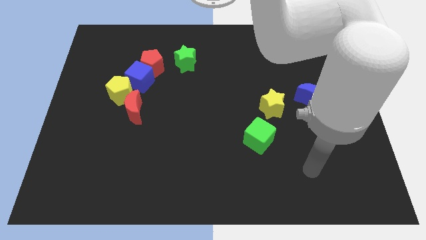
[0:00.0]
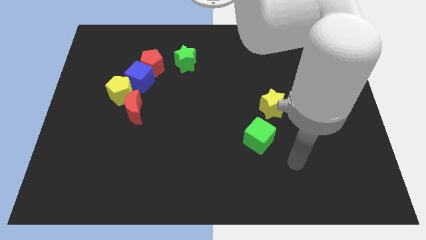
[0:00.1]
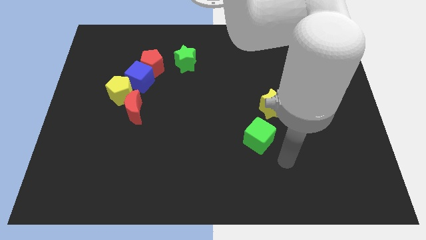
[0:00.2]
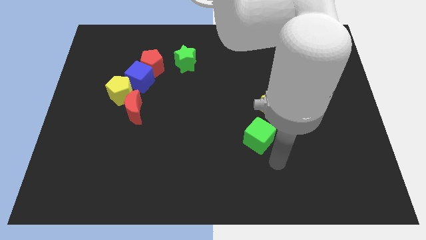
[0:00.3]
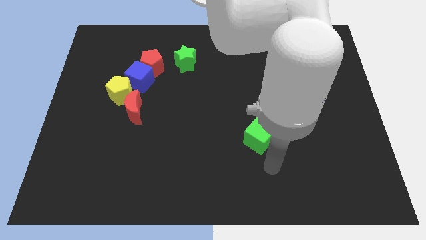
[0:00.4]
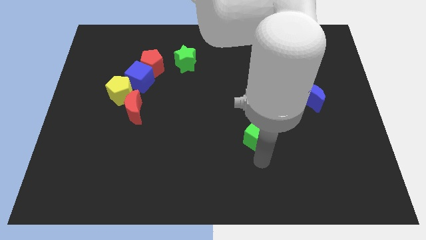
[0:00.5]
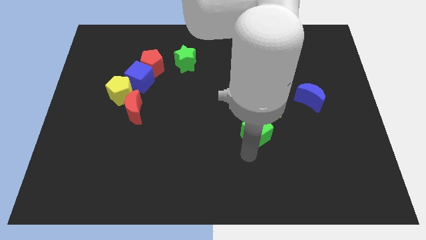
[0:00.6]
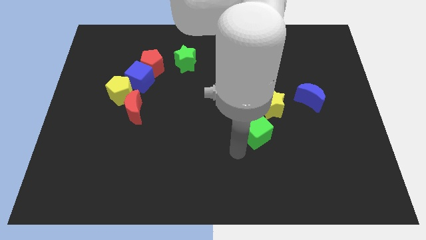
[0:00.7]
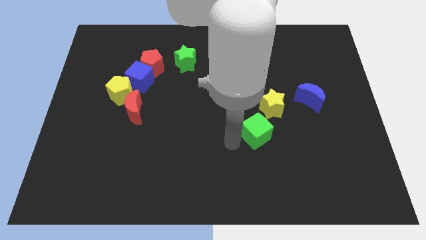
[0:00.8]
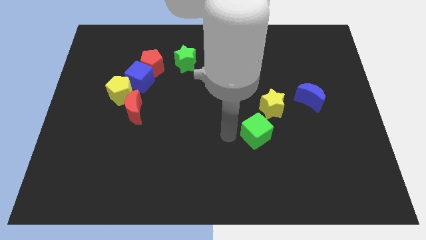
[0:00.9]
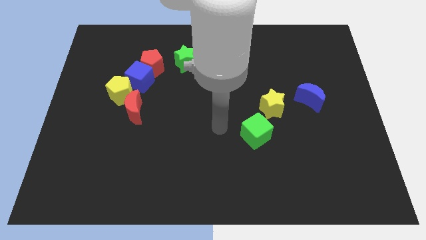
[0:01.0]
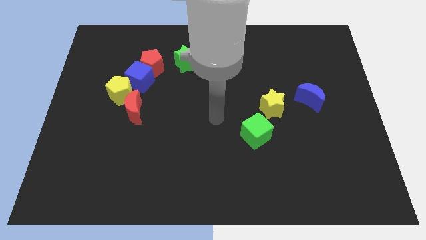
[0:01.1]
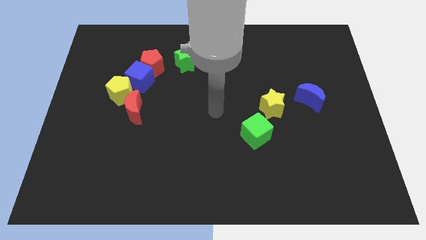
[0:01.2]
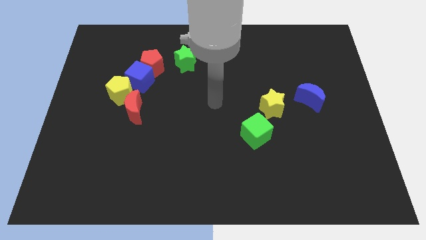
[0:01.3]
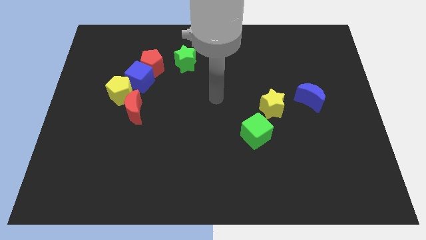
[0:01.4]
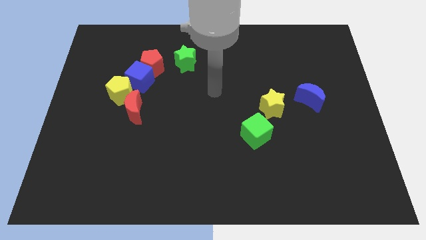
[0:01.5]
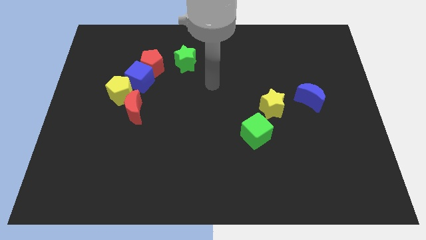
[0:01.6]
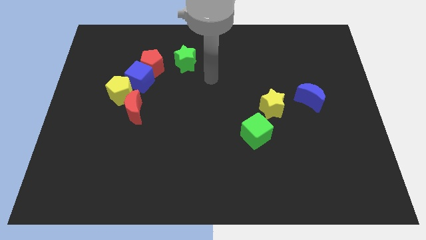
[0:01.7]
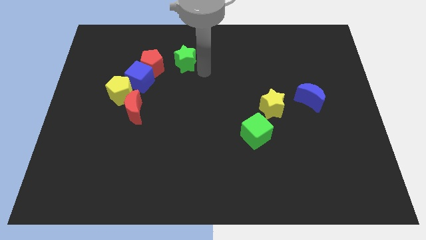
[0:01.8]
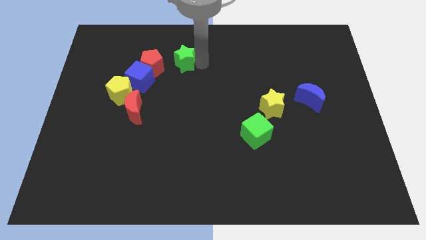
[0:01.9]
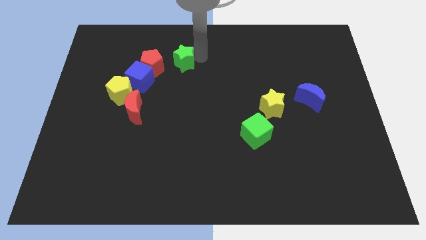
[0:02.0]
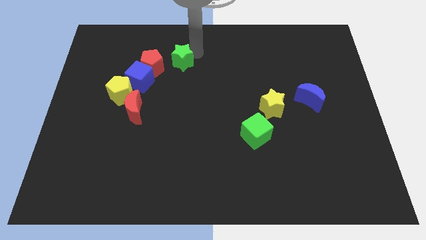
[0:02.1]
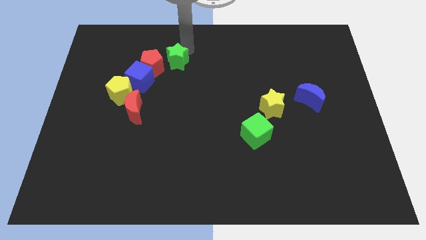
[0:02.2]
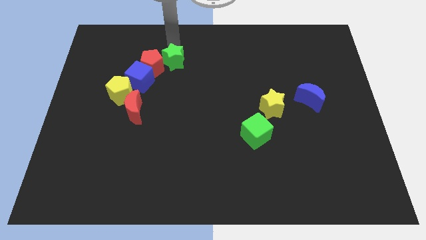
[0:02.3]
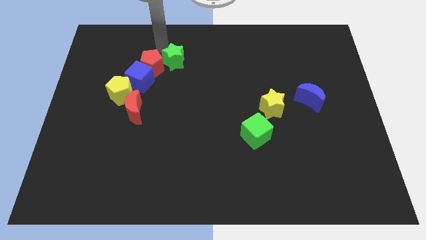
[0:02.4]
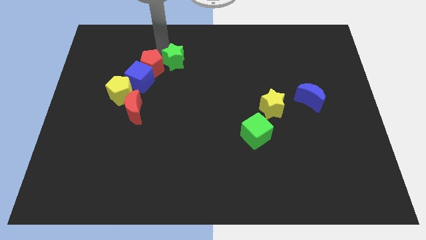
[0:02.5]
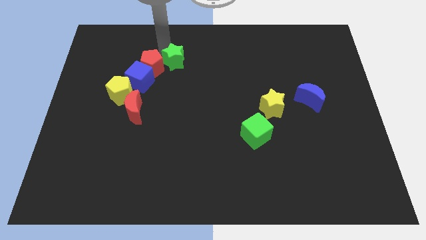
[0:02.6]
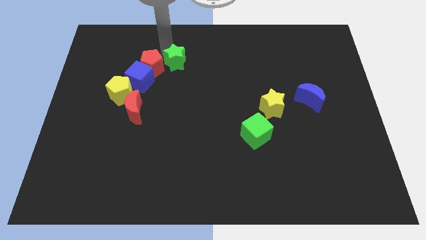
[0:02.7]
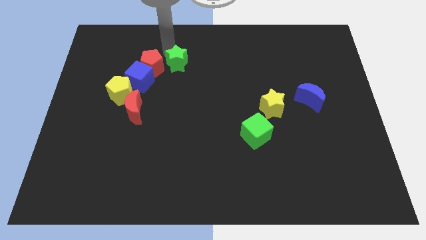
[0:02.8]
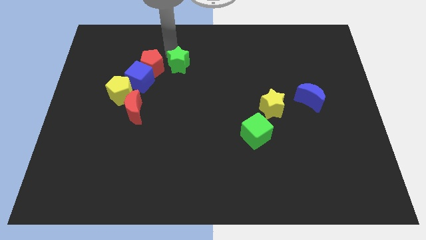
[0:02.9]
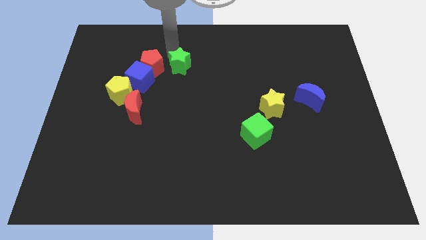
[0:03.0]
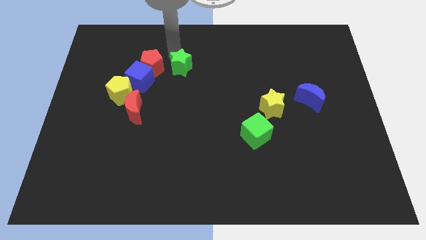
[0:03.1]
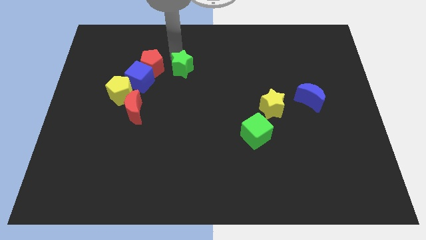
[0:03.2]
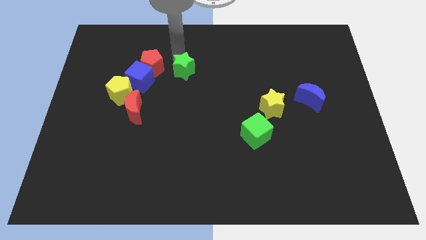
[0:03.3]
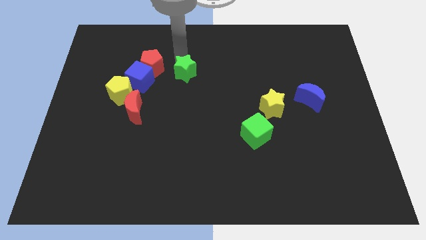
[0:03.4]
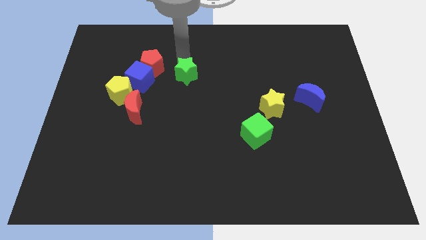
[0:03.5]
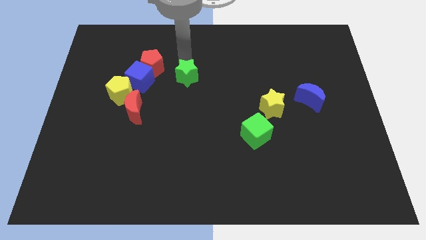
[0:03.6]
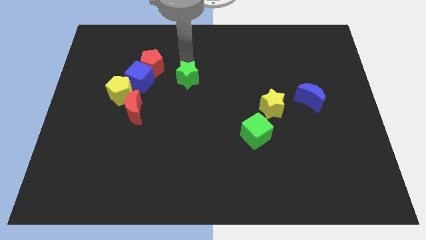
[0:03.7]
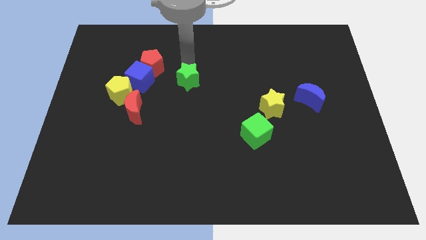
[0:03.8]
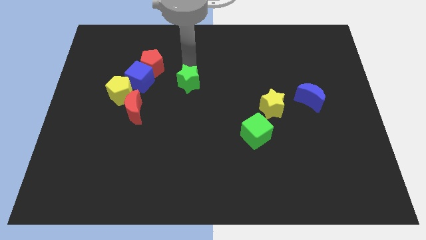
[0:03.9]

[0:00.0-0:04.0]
slightly move the green star down

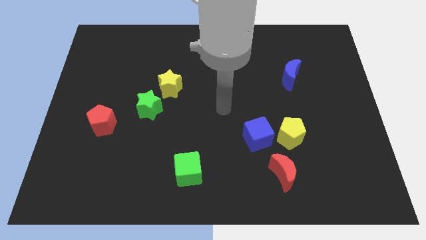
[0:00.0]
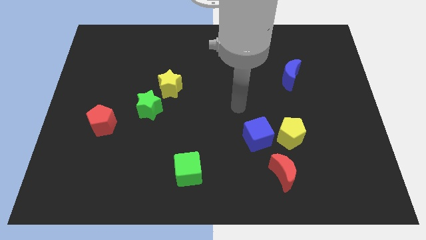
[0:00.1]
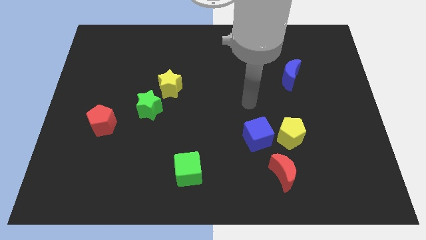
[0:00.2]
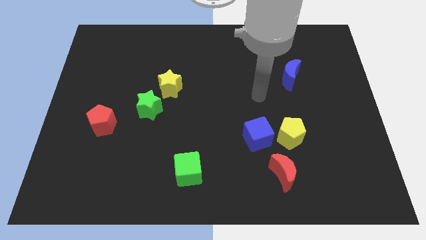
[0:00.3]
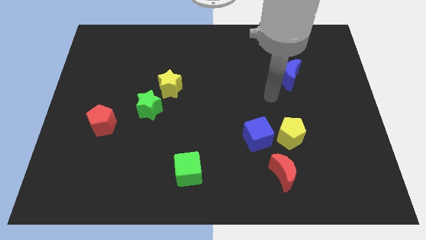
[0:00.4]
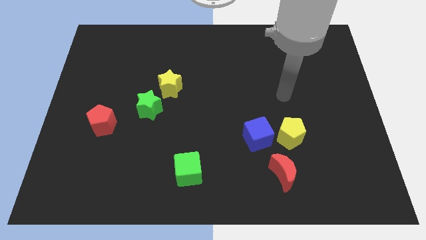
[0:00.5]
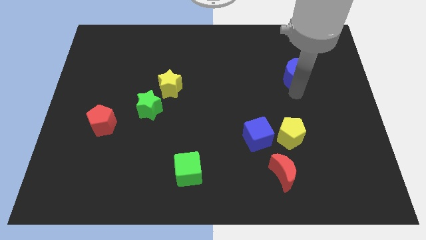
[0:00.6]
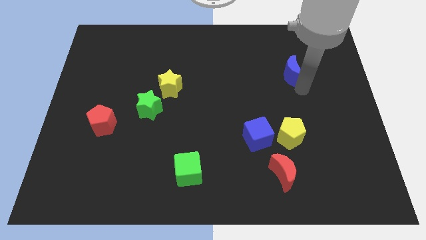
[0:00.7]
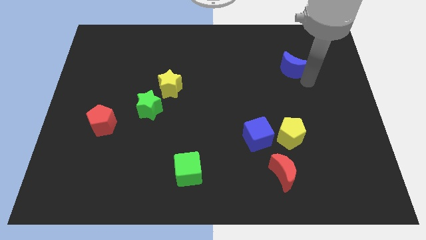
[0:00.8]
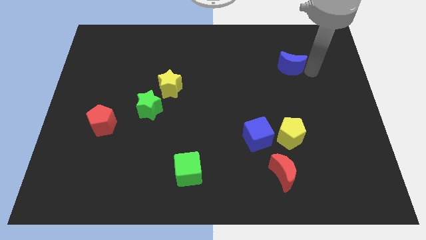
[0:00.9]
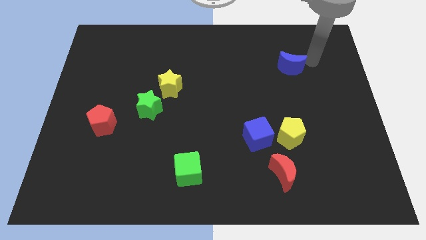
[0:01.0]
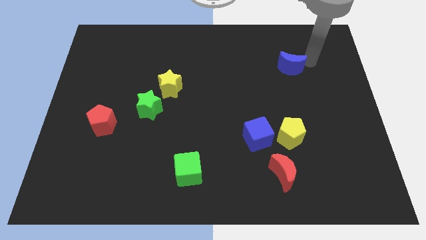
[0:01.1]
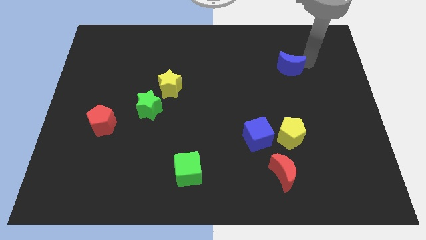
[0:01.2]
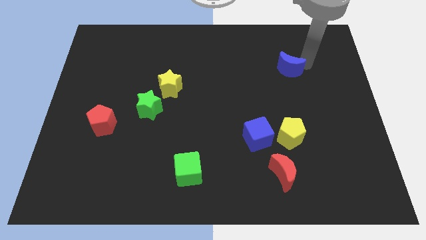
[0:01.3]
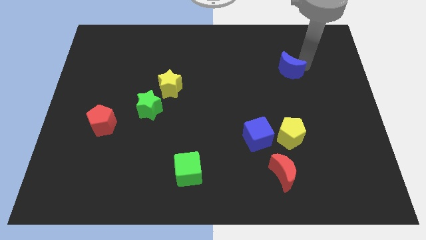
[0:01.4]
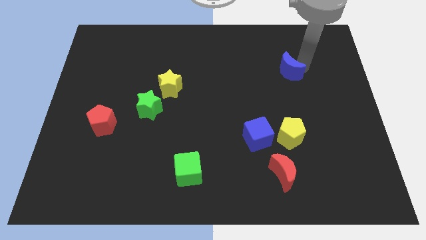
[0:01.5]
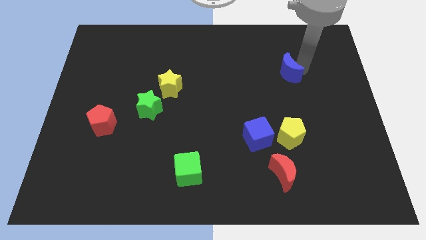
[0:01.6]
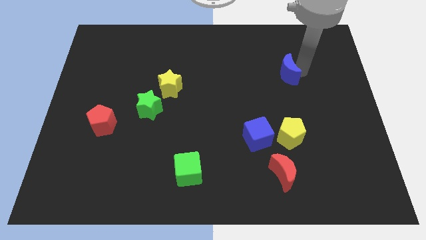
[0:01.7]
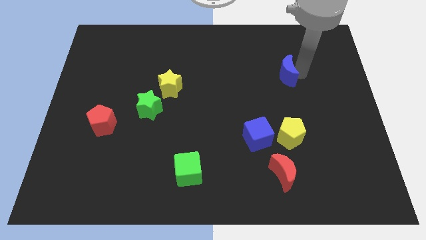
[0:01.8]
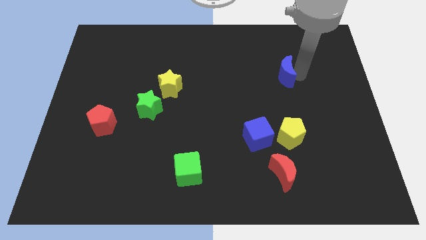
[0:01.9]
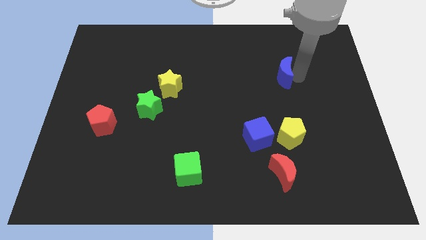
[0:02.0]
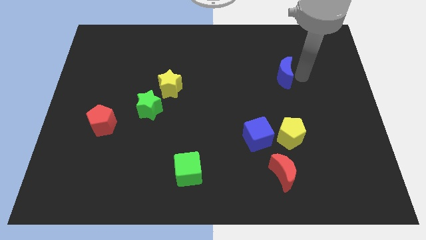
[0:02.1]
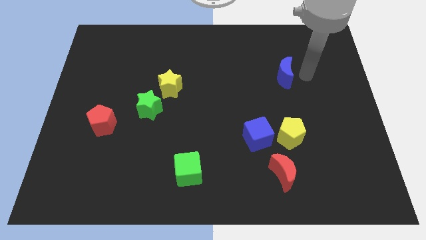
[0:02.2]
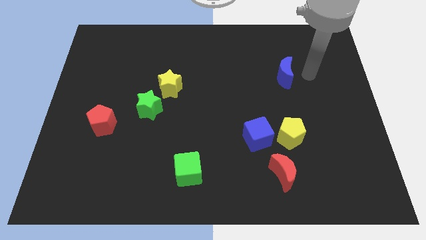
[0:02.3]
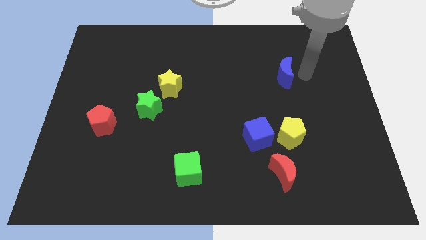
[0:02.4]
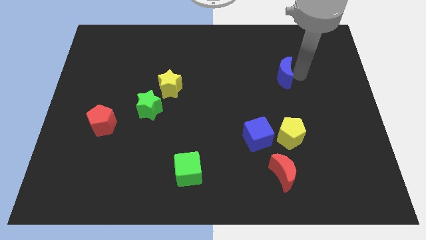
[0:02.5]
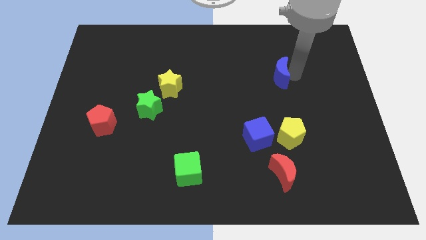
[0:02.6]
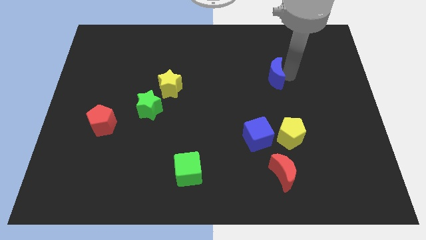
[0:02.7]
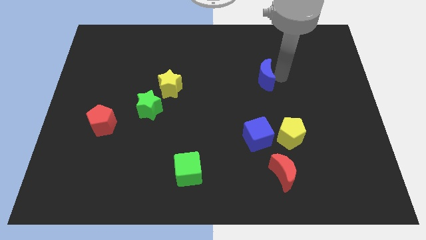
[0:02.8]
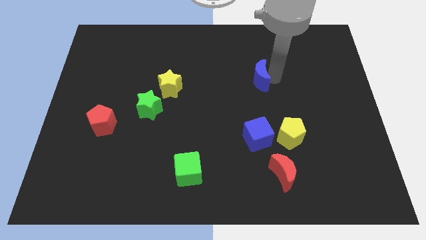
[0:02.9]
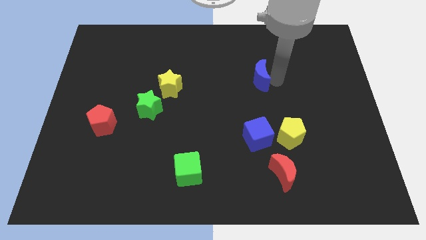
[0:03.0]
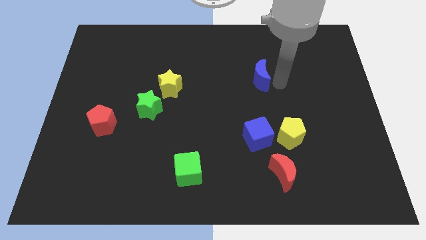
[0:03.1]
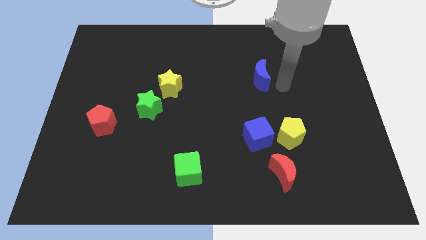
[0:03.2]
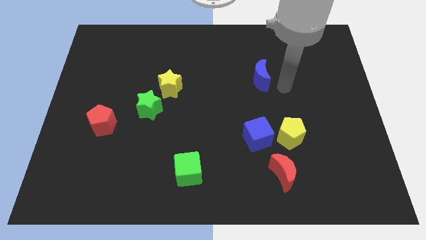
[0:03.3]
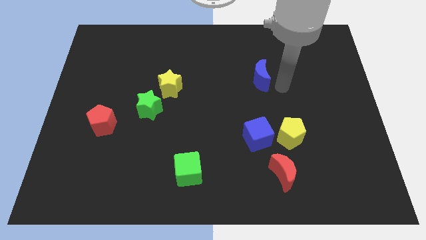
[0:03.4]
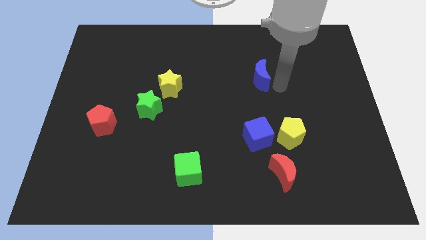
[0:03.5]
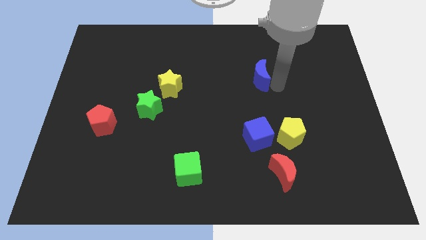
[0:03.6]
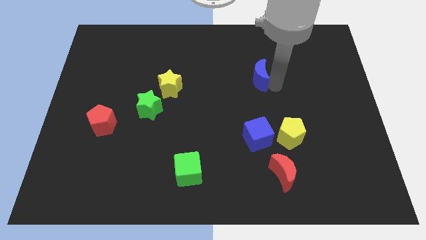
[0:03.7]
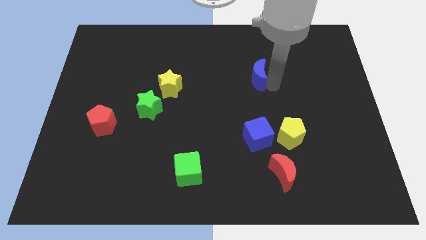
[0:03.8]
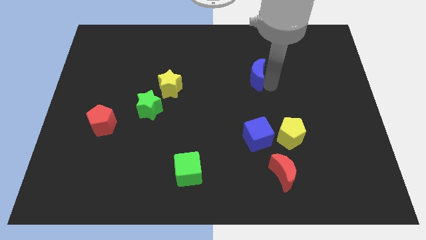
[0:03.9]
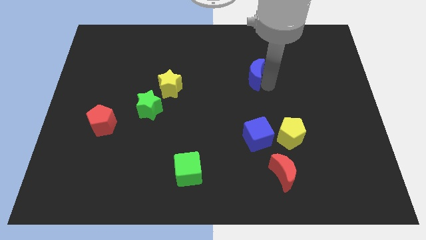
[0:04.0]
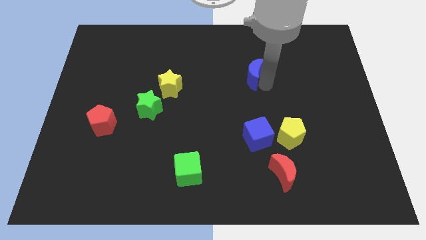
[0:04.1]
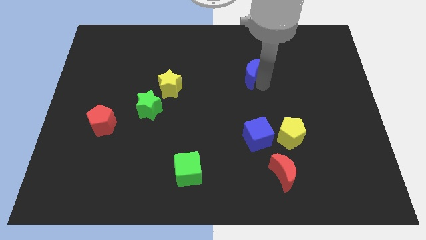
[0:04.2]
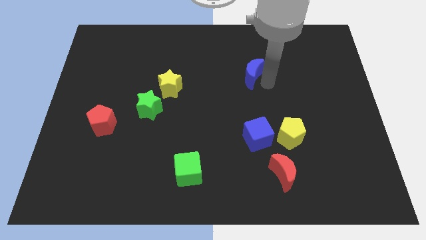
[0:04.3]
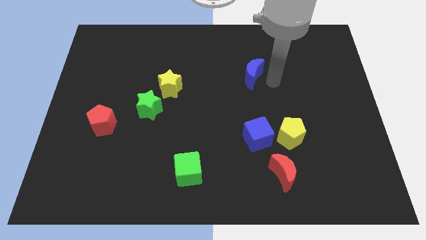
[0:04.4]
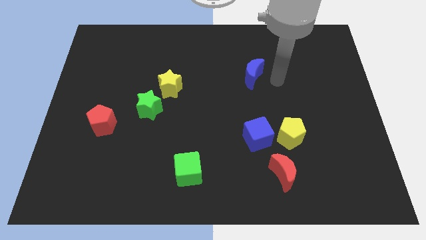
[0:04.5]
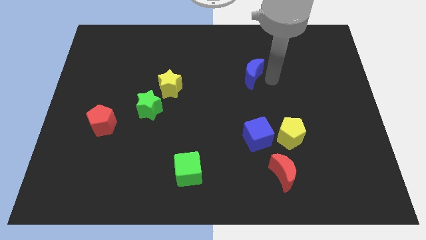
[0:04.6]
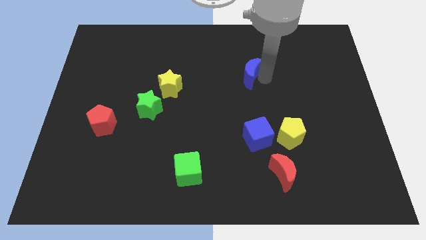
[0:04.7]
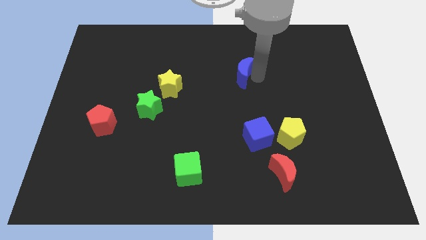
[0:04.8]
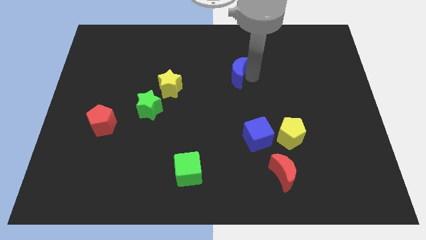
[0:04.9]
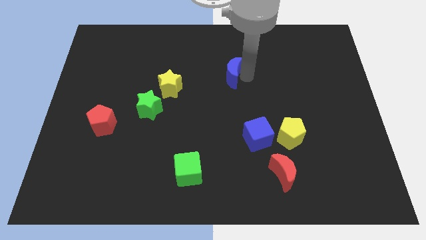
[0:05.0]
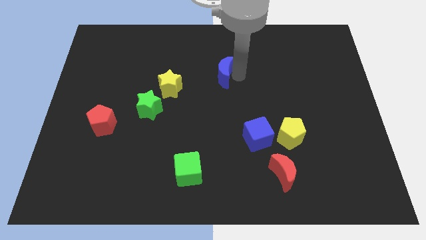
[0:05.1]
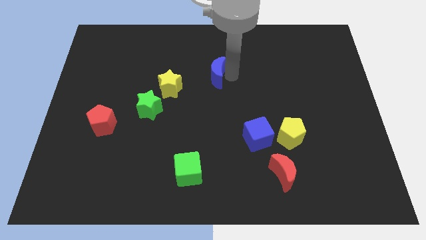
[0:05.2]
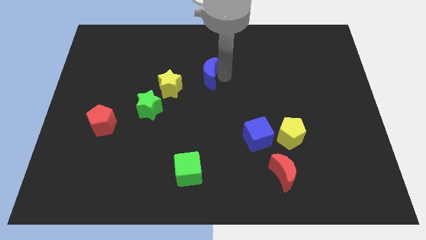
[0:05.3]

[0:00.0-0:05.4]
push the blue moon to the left
